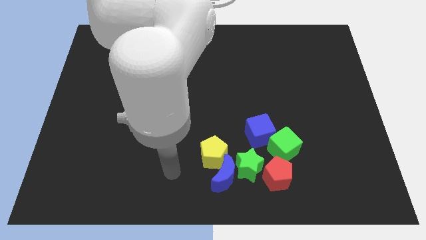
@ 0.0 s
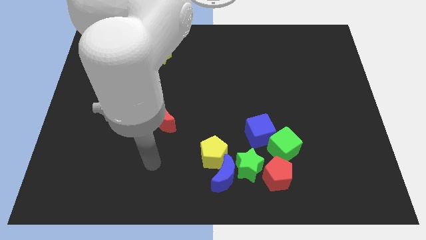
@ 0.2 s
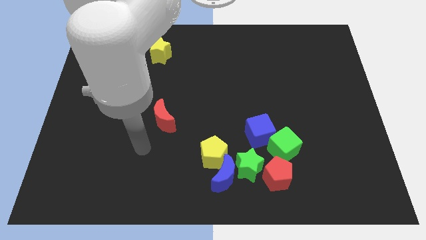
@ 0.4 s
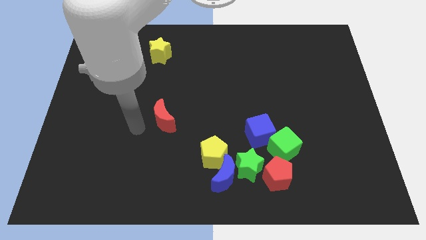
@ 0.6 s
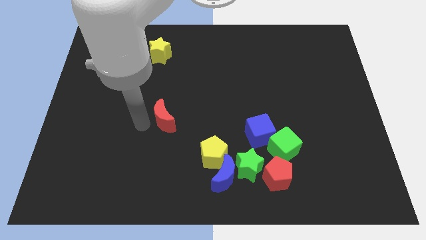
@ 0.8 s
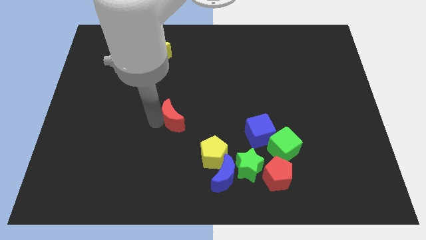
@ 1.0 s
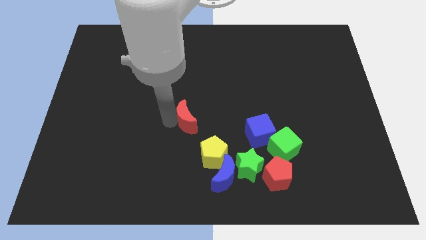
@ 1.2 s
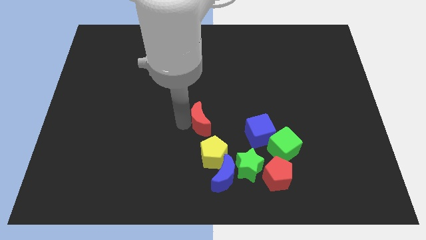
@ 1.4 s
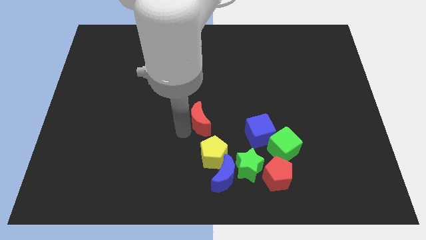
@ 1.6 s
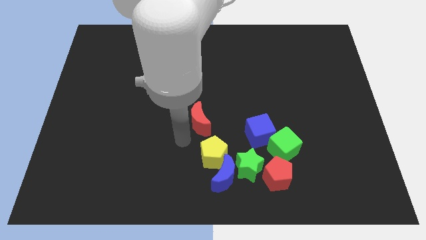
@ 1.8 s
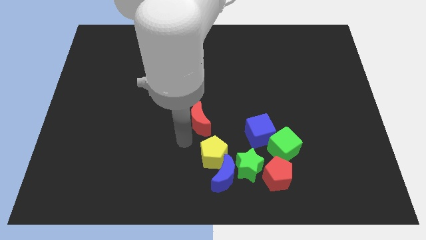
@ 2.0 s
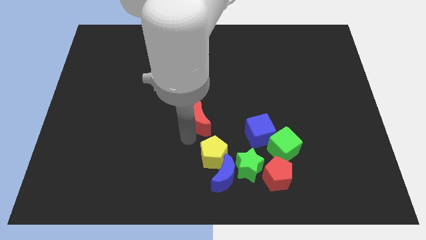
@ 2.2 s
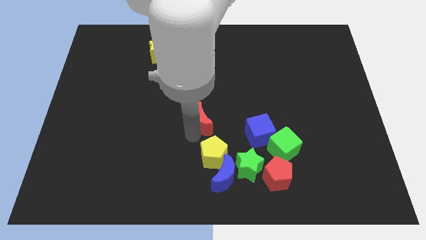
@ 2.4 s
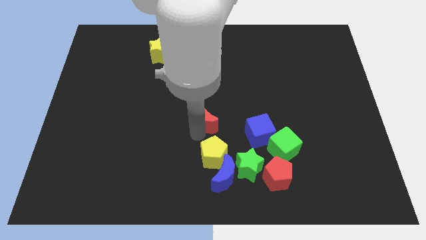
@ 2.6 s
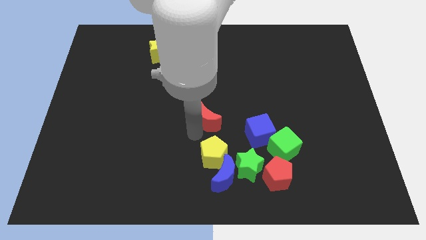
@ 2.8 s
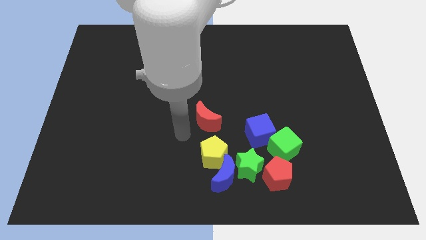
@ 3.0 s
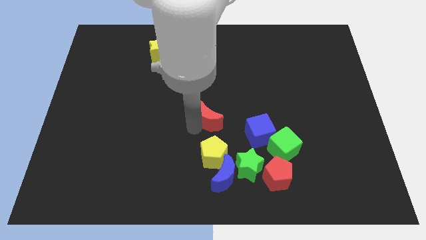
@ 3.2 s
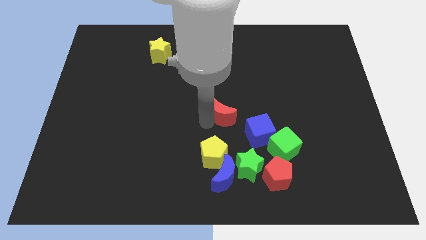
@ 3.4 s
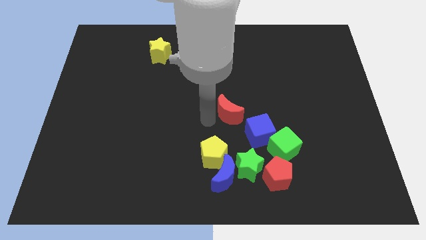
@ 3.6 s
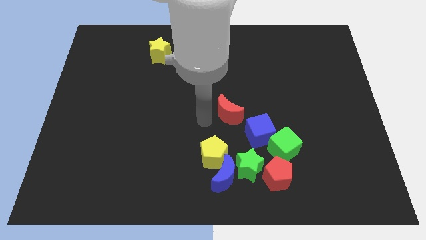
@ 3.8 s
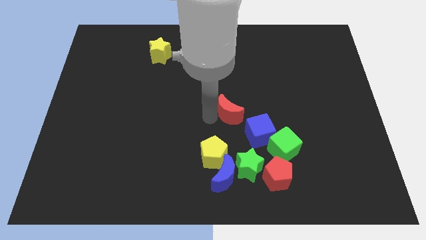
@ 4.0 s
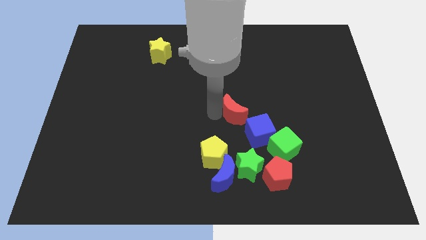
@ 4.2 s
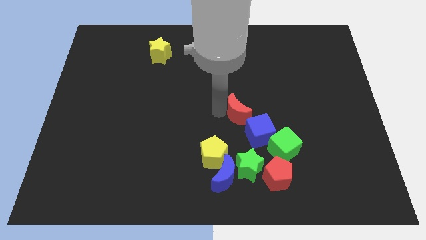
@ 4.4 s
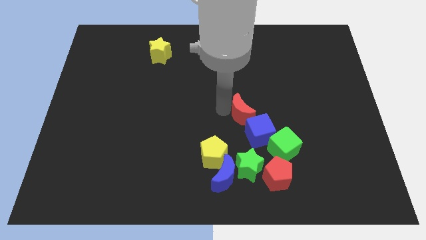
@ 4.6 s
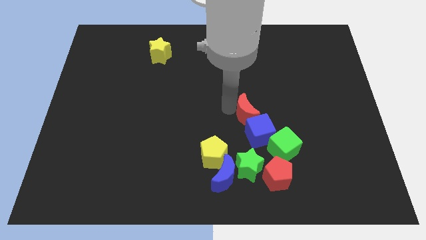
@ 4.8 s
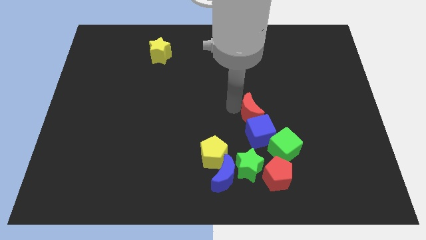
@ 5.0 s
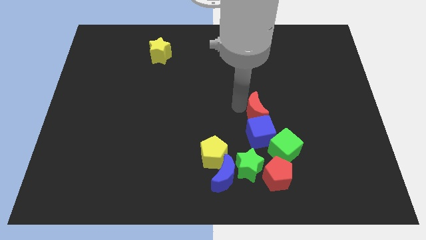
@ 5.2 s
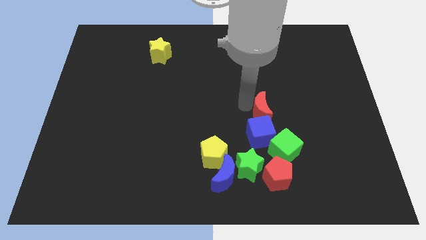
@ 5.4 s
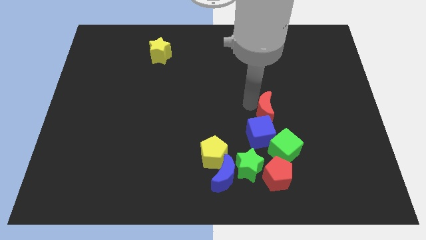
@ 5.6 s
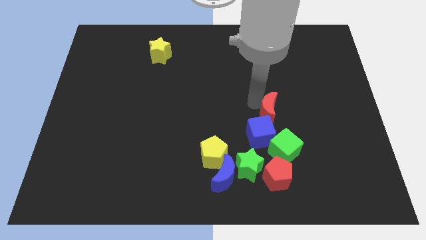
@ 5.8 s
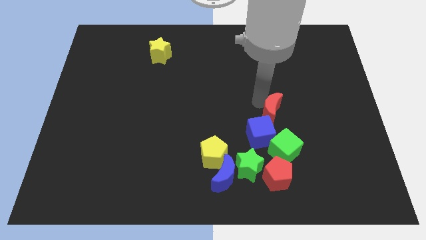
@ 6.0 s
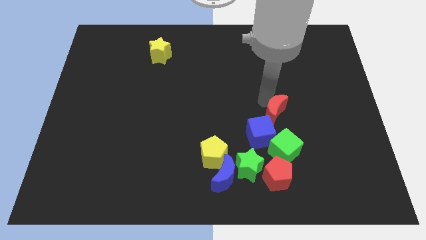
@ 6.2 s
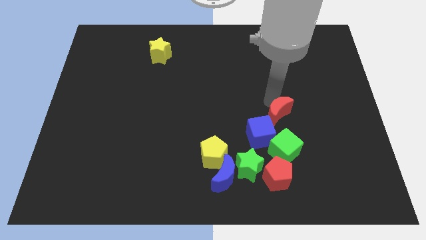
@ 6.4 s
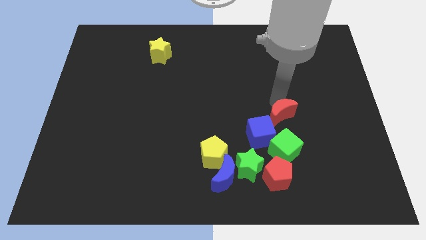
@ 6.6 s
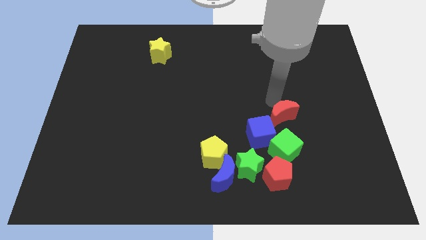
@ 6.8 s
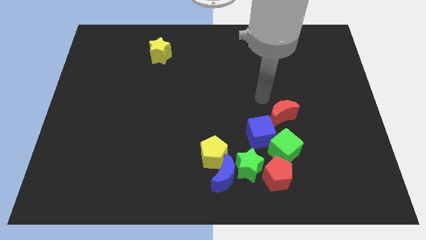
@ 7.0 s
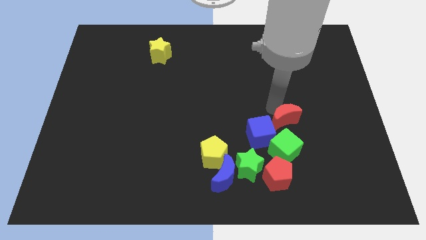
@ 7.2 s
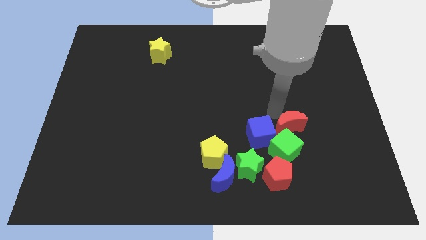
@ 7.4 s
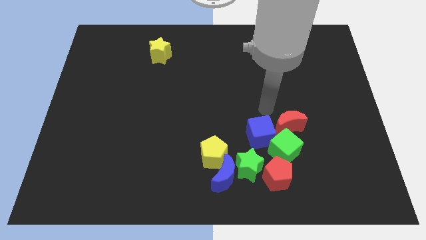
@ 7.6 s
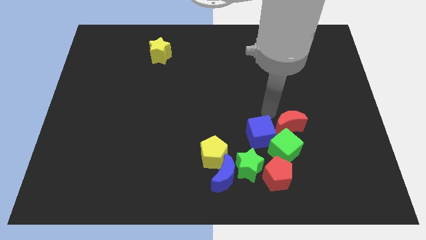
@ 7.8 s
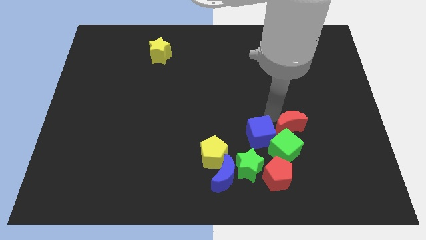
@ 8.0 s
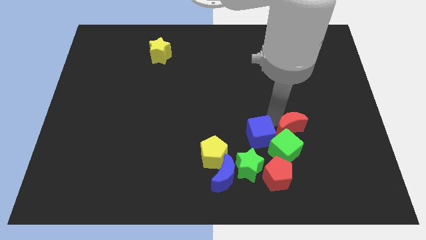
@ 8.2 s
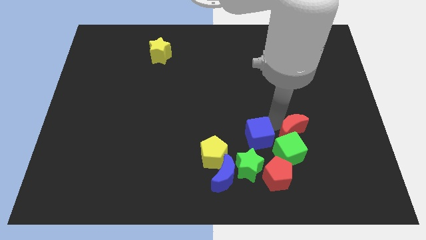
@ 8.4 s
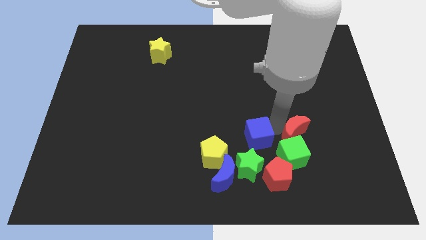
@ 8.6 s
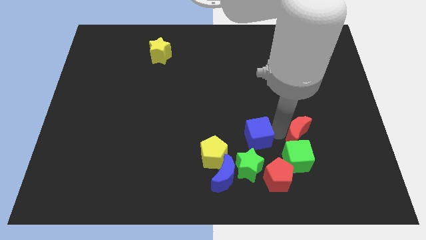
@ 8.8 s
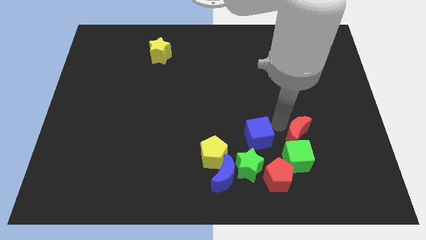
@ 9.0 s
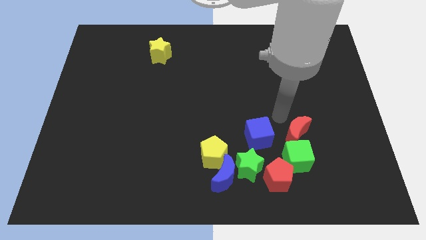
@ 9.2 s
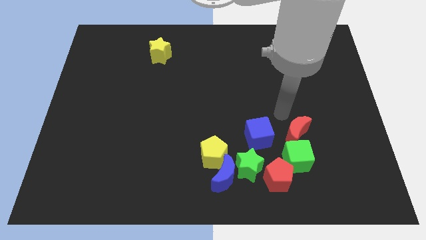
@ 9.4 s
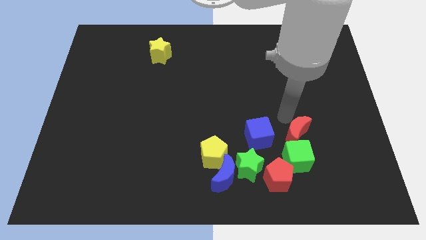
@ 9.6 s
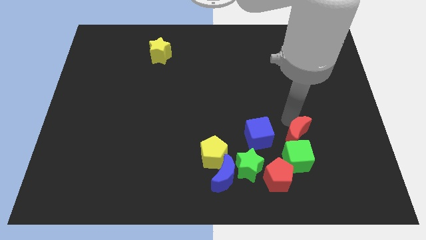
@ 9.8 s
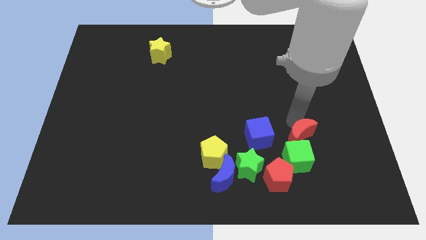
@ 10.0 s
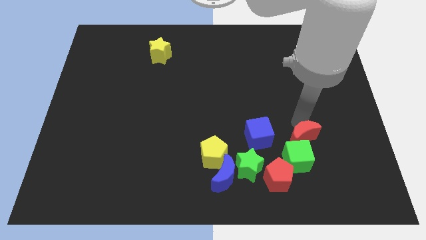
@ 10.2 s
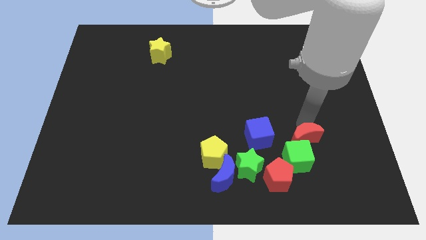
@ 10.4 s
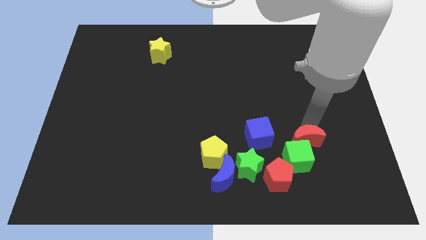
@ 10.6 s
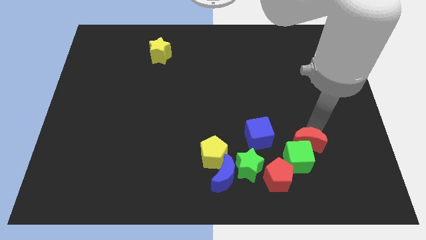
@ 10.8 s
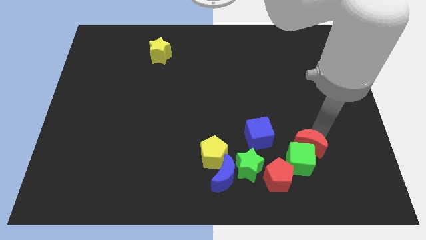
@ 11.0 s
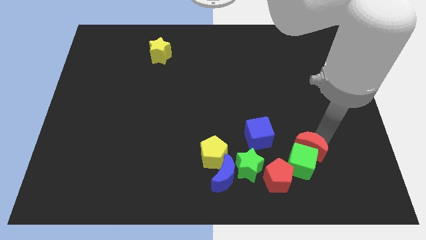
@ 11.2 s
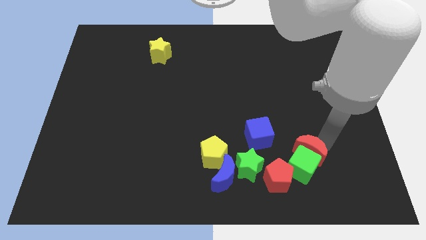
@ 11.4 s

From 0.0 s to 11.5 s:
slide the red moon to the right of the green star

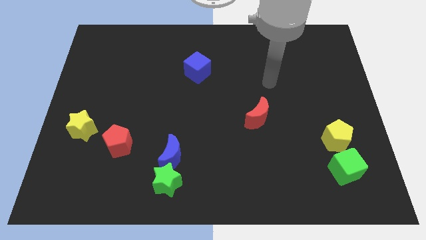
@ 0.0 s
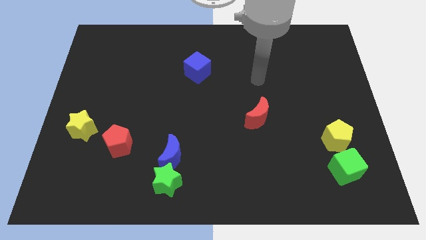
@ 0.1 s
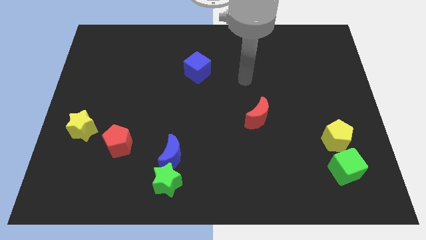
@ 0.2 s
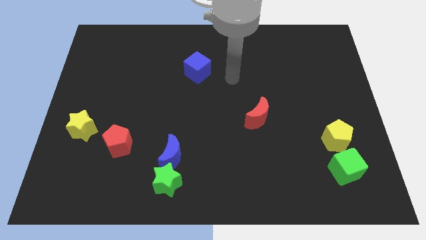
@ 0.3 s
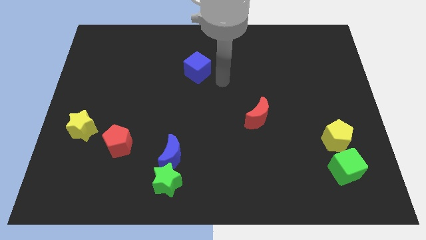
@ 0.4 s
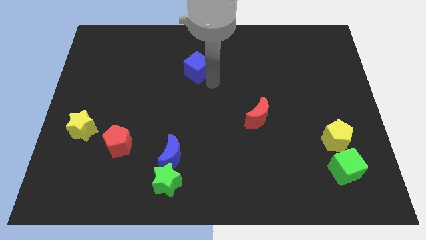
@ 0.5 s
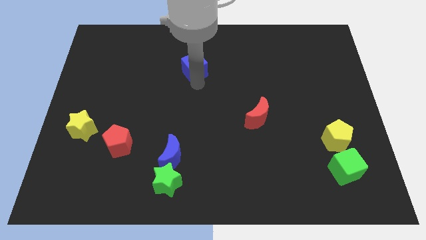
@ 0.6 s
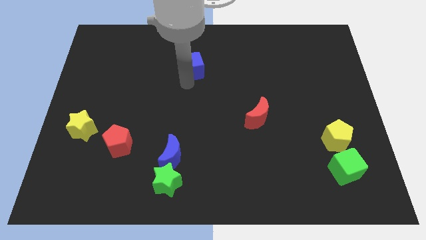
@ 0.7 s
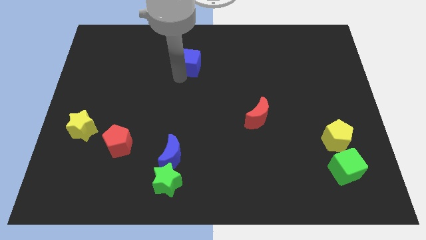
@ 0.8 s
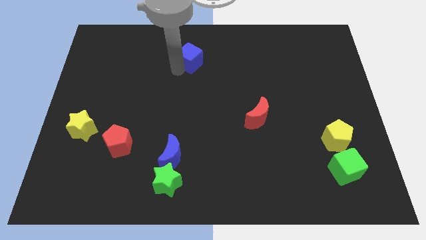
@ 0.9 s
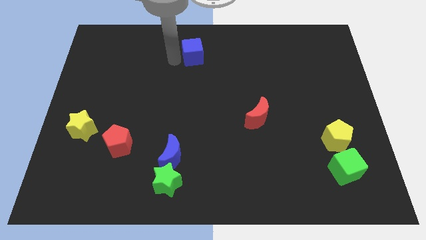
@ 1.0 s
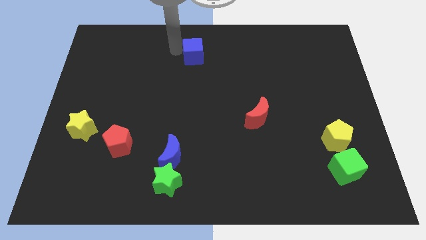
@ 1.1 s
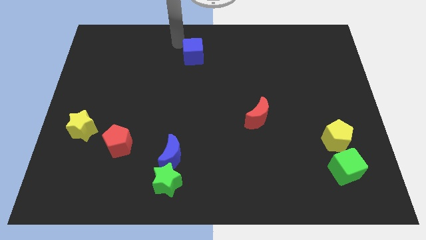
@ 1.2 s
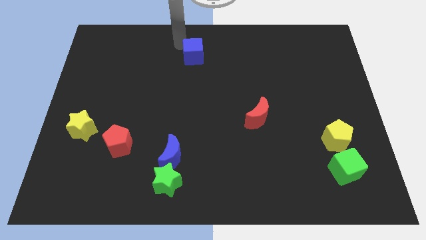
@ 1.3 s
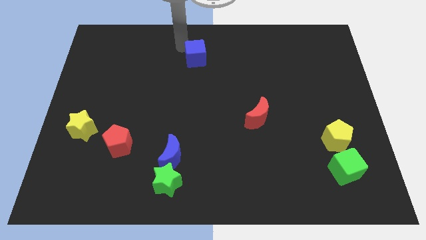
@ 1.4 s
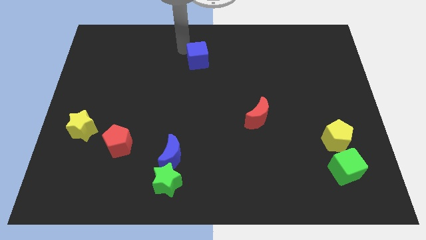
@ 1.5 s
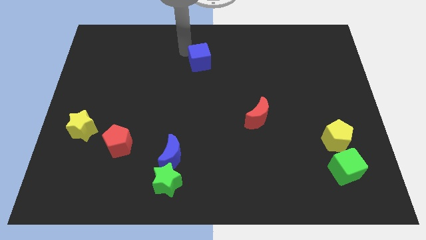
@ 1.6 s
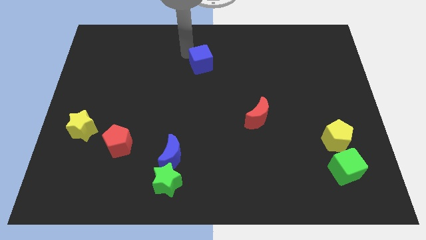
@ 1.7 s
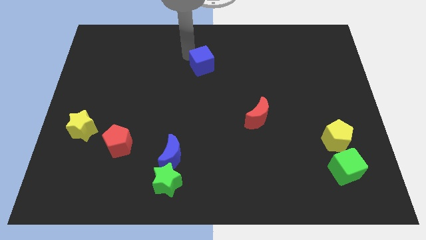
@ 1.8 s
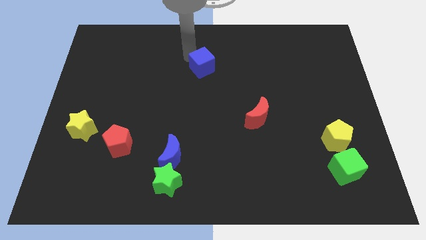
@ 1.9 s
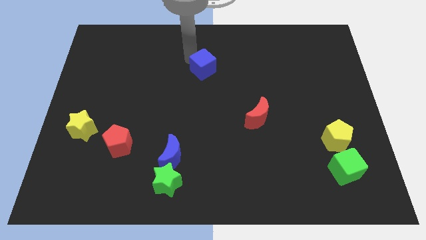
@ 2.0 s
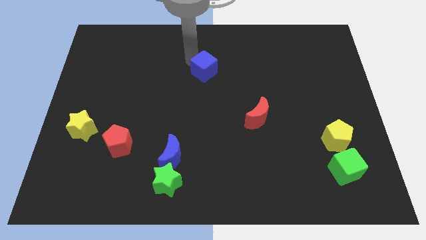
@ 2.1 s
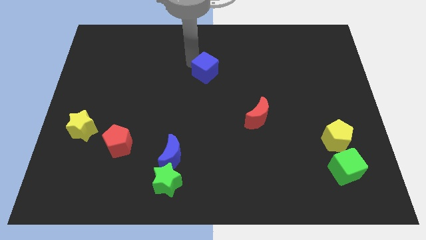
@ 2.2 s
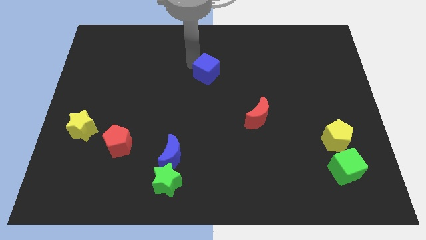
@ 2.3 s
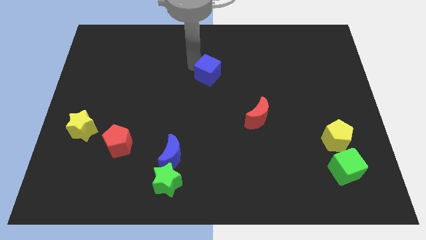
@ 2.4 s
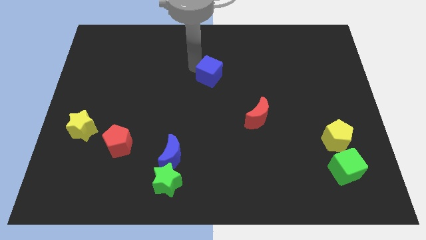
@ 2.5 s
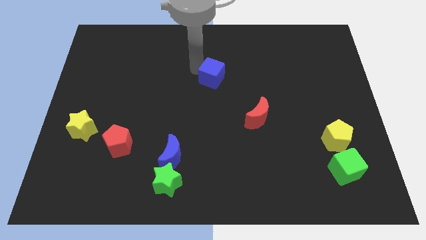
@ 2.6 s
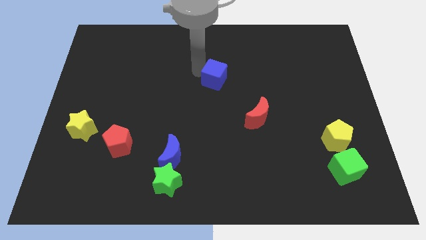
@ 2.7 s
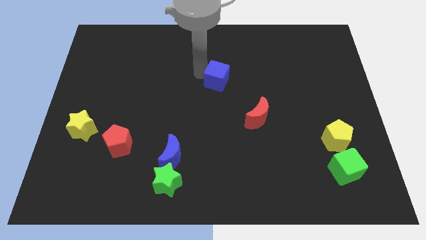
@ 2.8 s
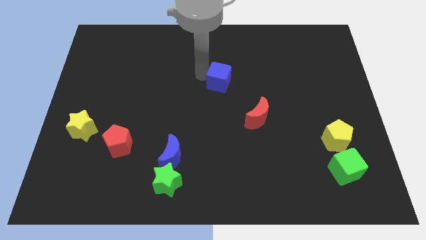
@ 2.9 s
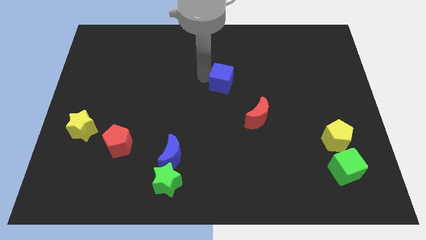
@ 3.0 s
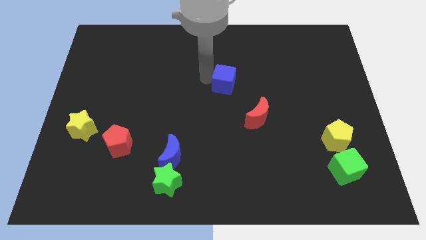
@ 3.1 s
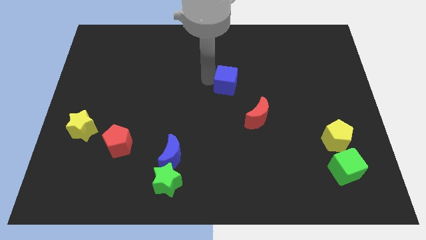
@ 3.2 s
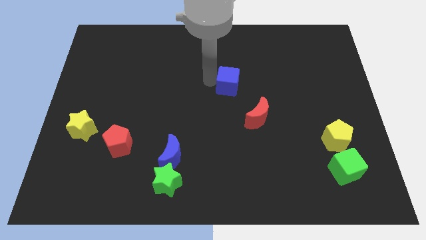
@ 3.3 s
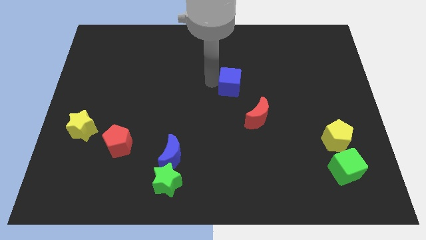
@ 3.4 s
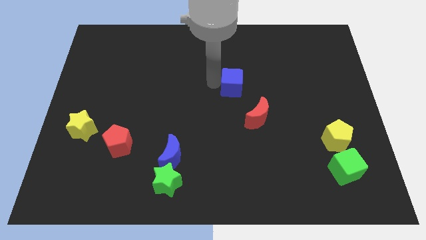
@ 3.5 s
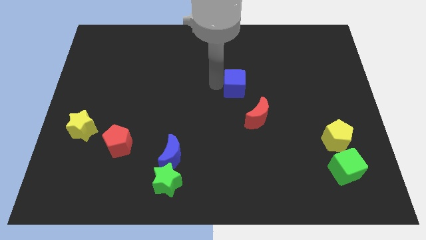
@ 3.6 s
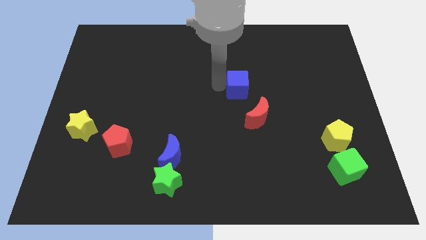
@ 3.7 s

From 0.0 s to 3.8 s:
slide the blue cube to the top of the red moon
